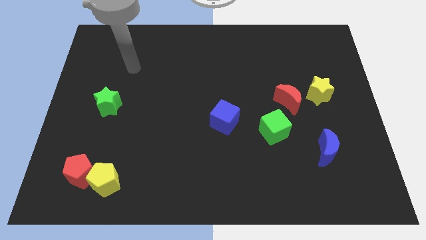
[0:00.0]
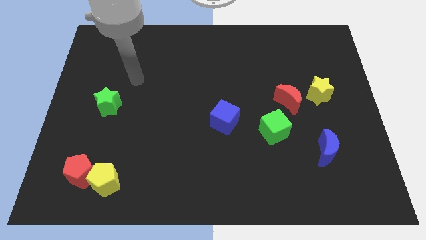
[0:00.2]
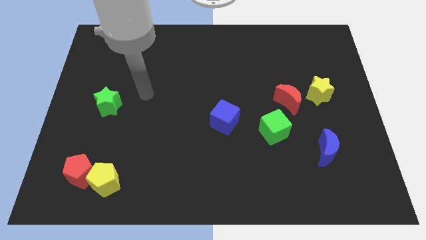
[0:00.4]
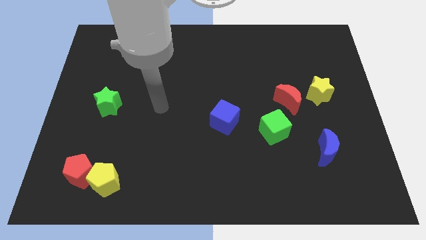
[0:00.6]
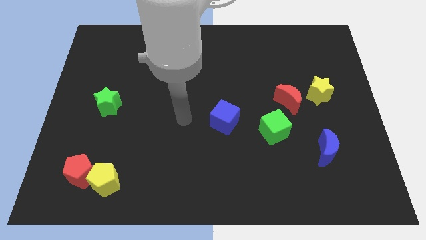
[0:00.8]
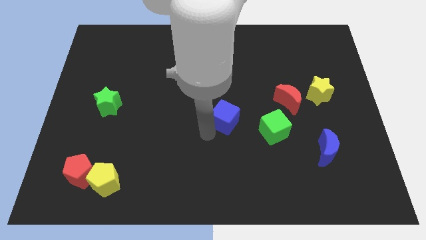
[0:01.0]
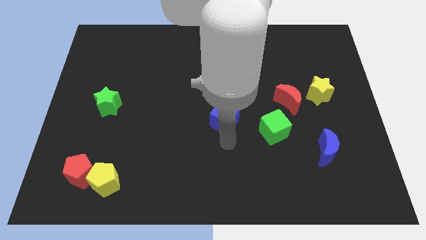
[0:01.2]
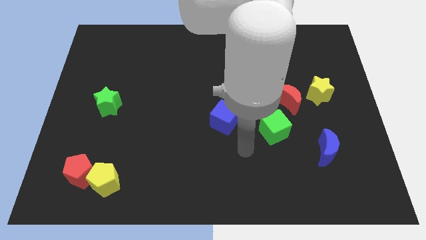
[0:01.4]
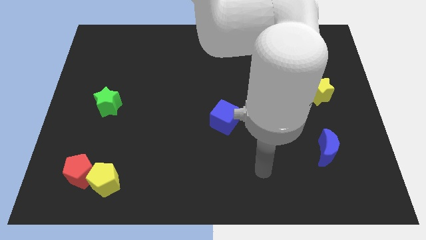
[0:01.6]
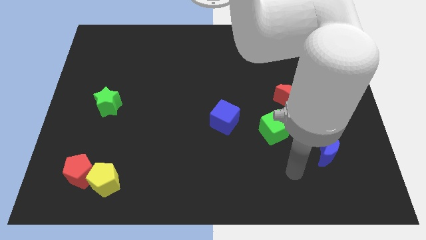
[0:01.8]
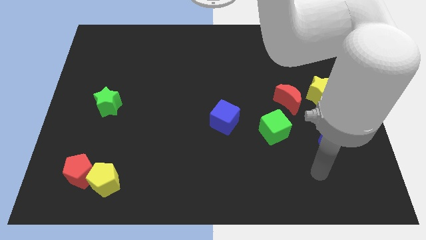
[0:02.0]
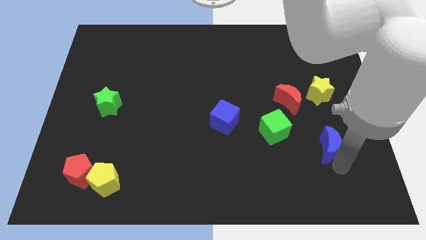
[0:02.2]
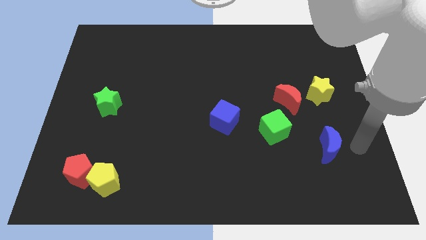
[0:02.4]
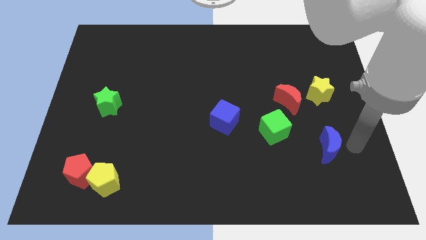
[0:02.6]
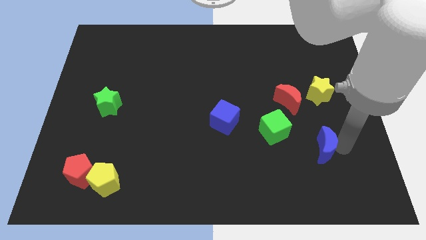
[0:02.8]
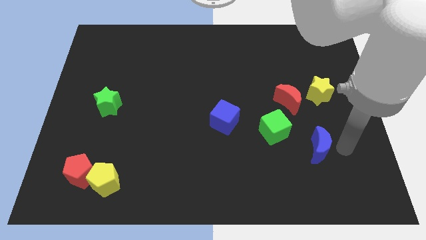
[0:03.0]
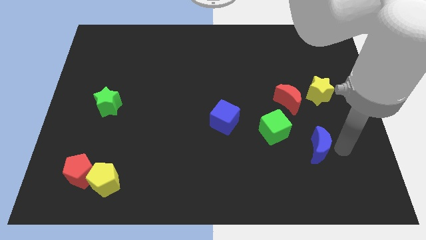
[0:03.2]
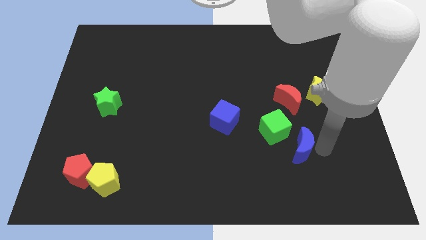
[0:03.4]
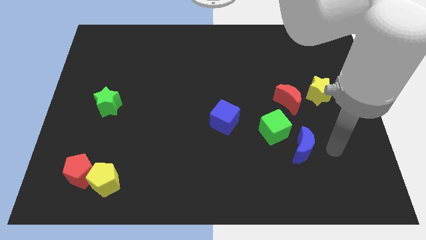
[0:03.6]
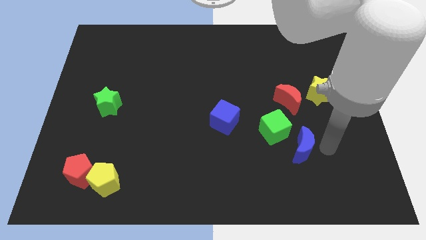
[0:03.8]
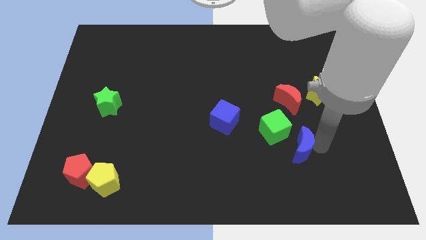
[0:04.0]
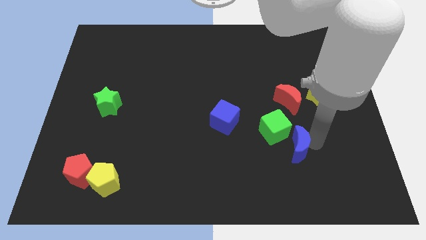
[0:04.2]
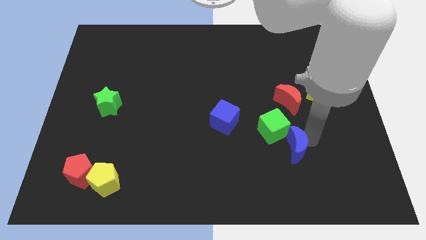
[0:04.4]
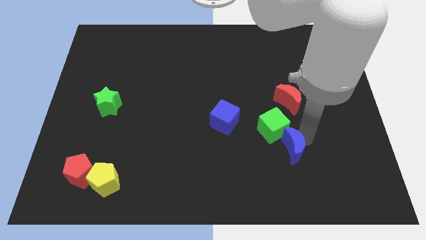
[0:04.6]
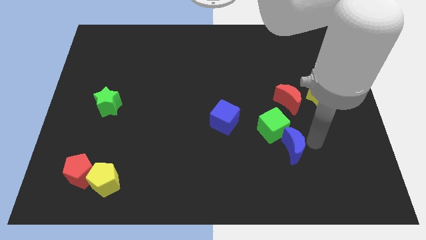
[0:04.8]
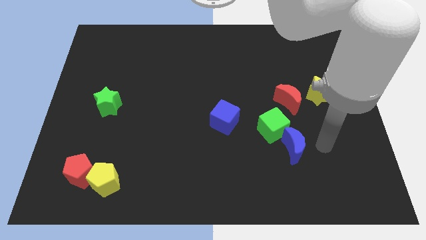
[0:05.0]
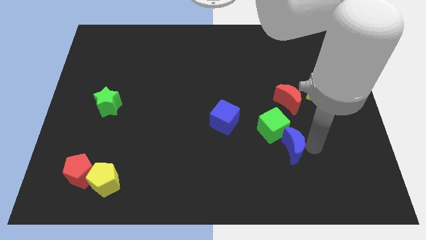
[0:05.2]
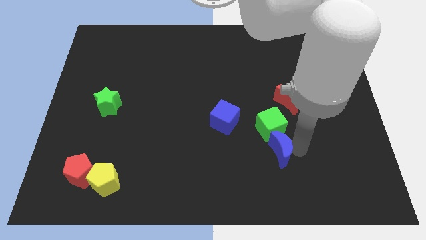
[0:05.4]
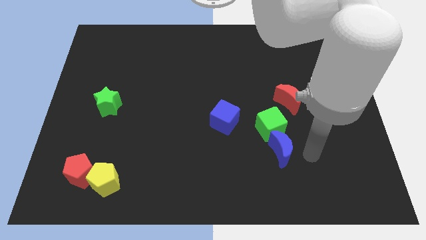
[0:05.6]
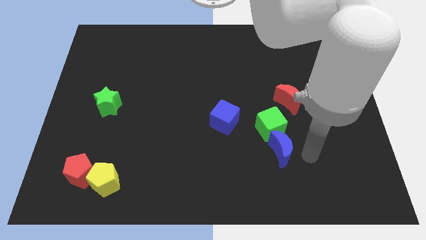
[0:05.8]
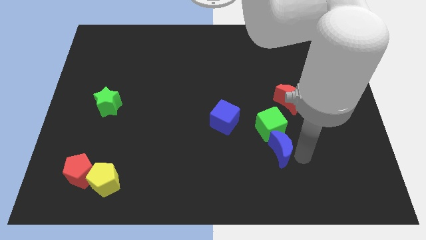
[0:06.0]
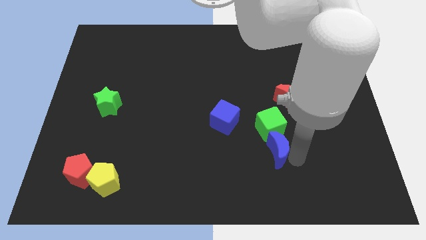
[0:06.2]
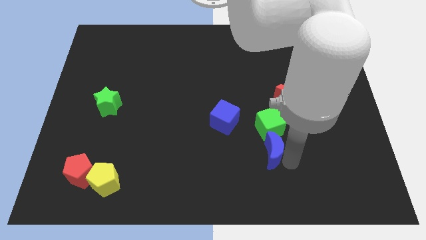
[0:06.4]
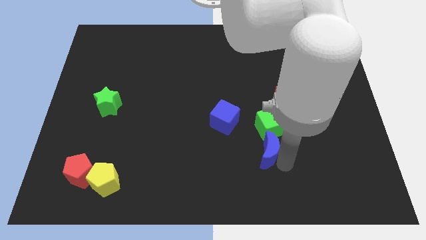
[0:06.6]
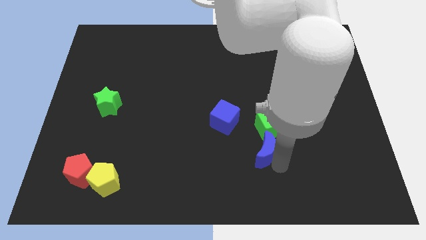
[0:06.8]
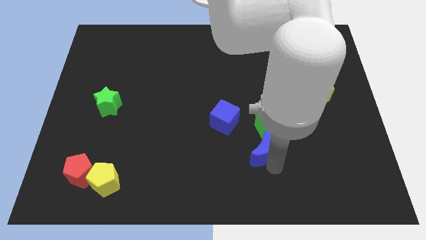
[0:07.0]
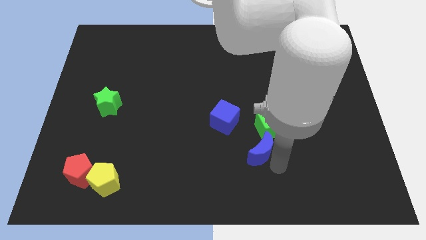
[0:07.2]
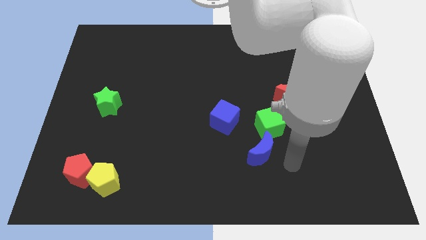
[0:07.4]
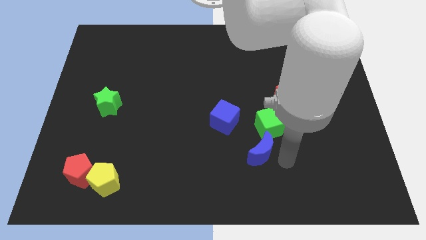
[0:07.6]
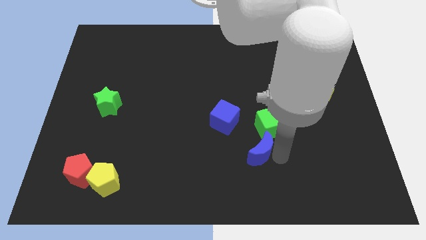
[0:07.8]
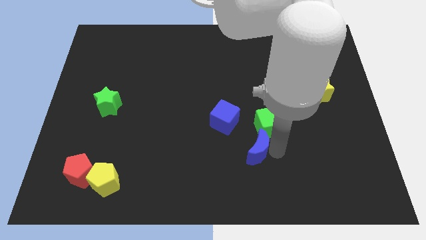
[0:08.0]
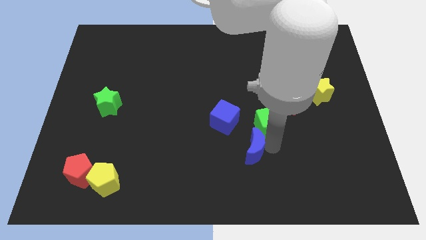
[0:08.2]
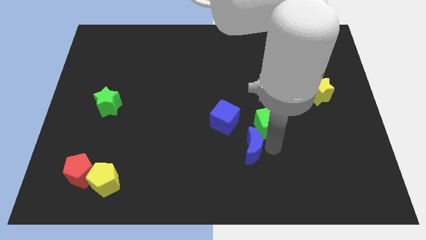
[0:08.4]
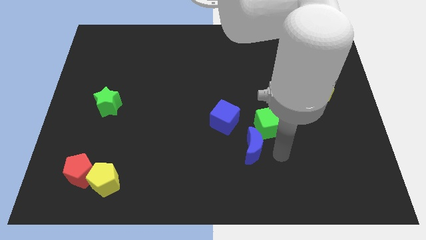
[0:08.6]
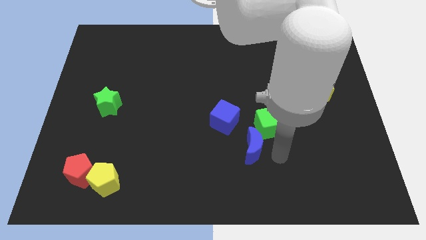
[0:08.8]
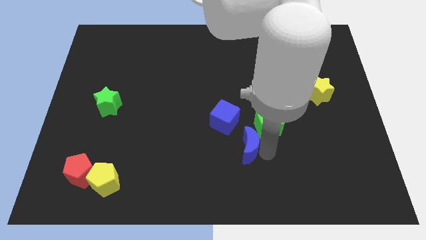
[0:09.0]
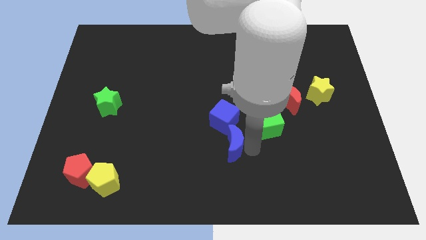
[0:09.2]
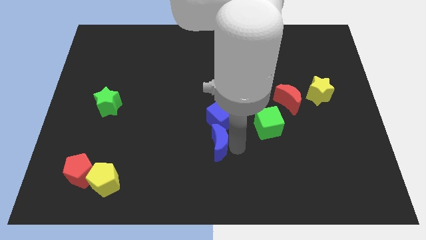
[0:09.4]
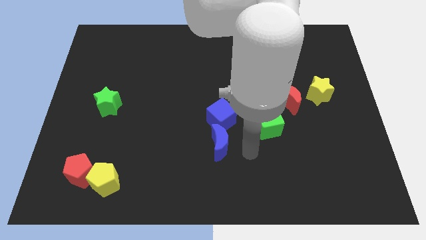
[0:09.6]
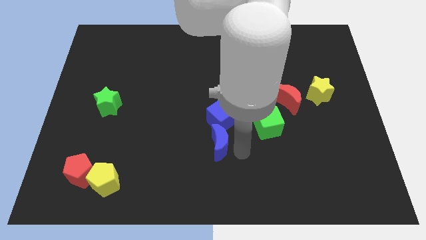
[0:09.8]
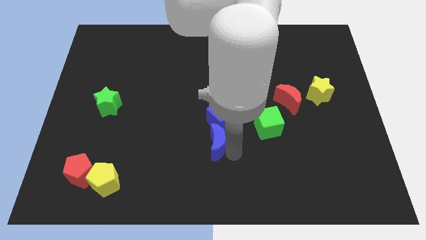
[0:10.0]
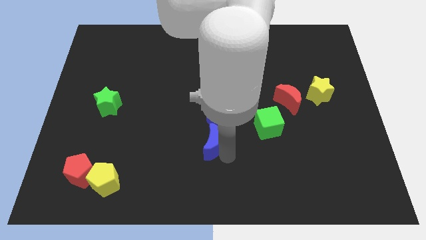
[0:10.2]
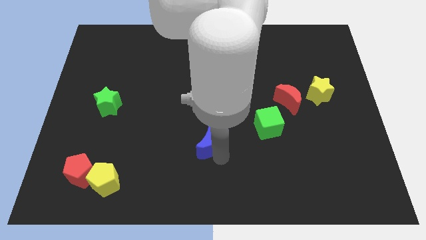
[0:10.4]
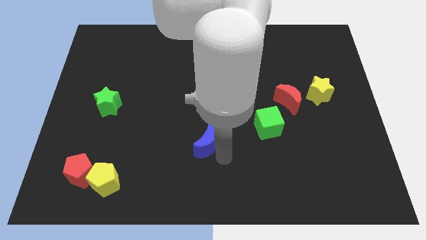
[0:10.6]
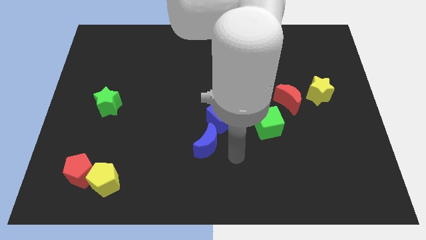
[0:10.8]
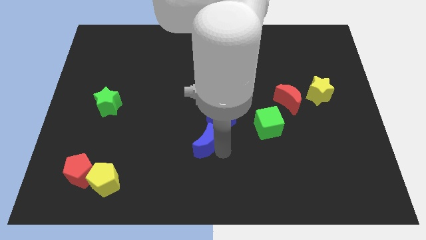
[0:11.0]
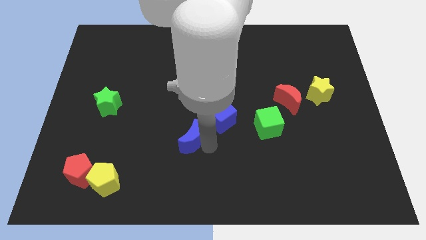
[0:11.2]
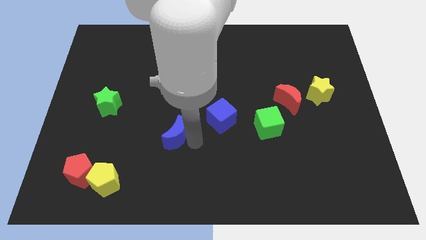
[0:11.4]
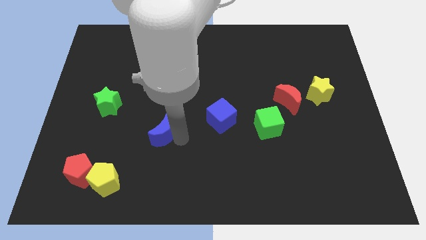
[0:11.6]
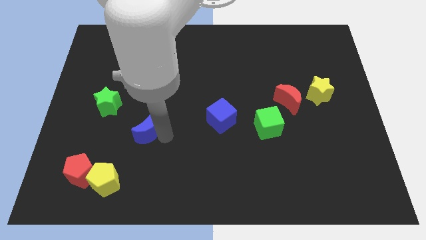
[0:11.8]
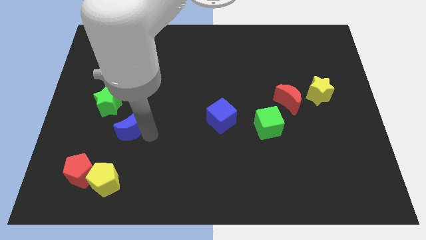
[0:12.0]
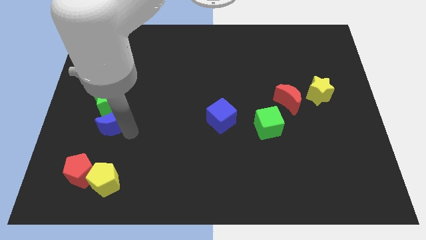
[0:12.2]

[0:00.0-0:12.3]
push the blue moon close to the green star

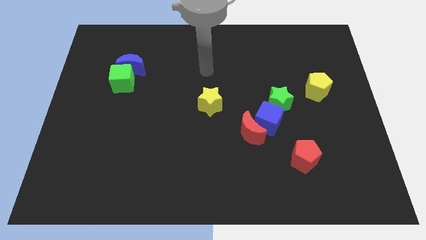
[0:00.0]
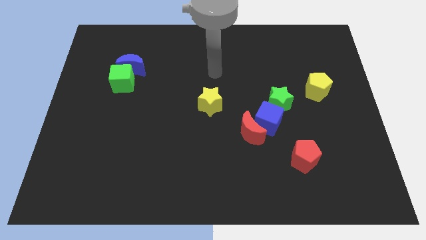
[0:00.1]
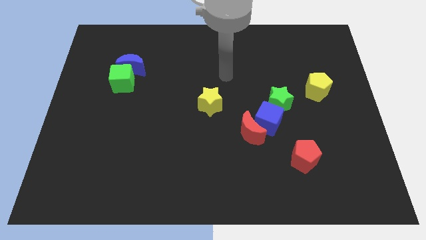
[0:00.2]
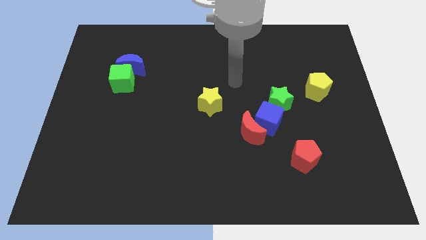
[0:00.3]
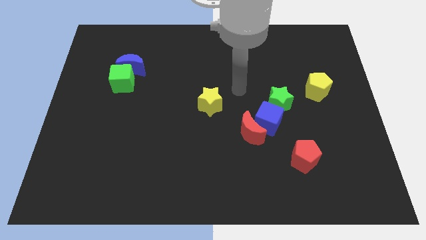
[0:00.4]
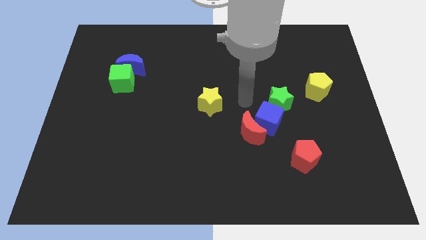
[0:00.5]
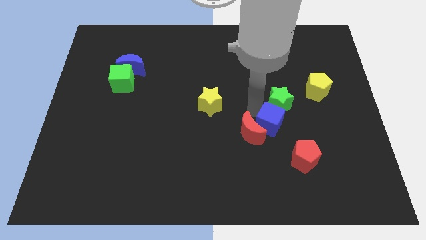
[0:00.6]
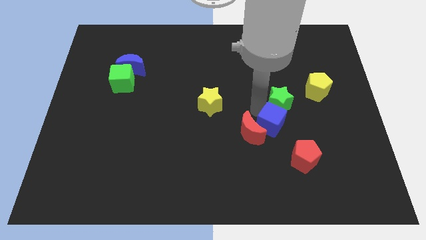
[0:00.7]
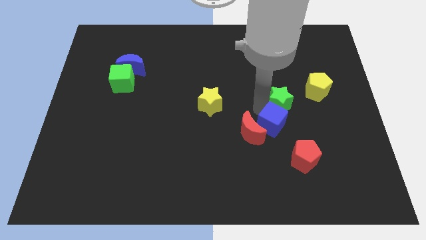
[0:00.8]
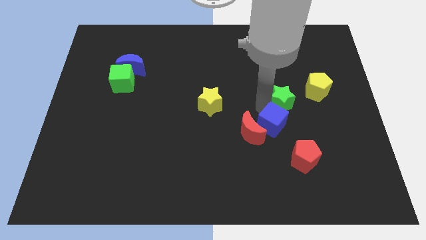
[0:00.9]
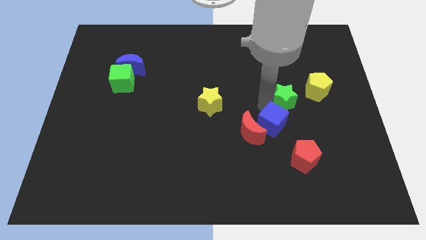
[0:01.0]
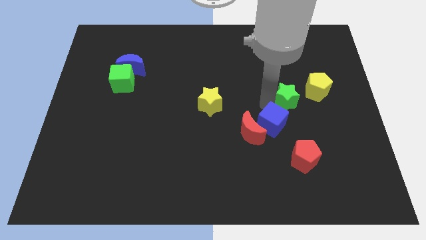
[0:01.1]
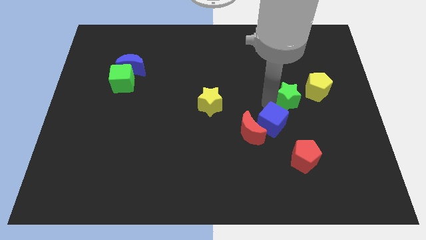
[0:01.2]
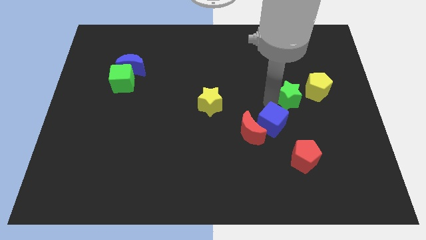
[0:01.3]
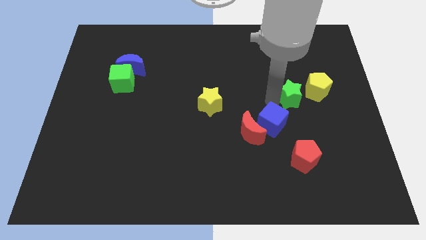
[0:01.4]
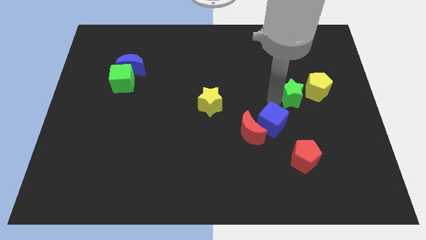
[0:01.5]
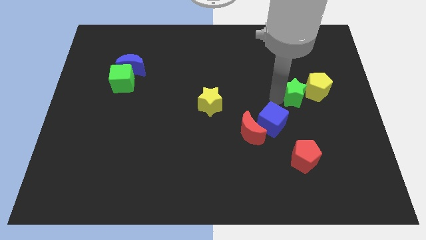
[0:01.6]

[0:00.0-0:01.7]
push the green star close to the yellow pentagon
